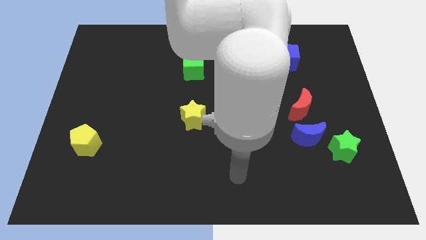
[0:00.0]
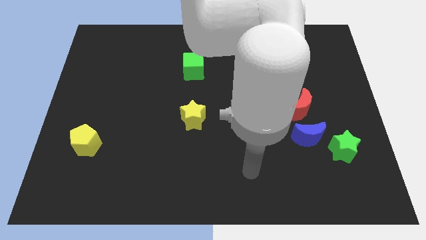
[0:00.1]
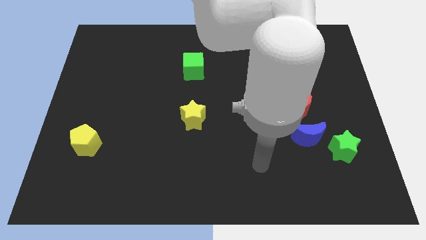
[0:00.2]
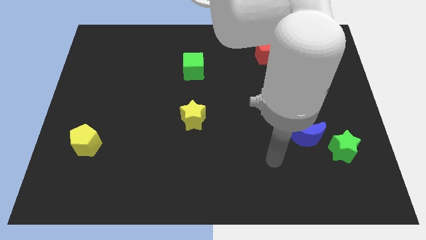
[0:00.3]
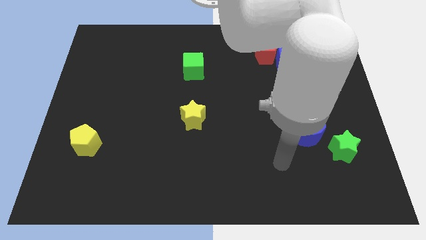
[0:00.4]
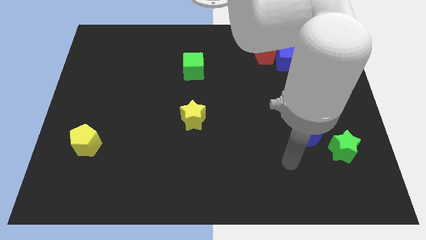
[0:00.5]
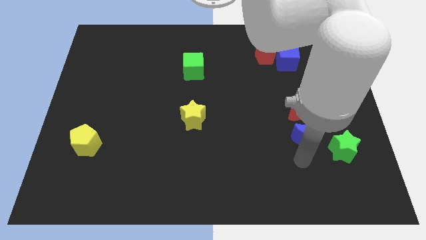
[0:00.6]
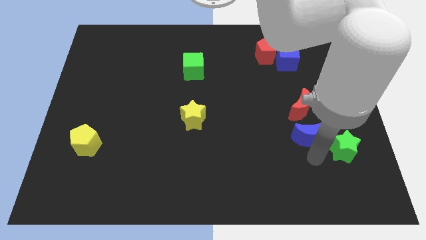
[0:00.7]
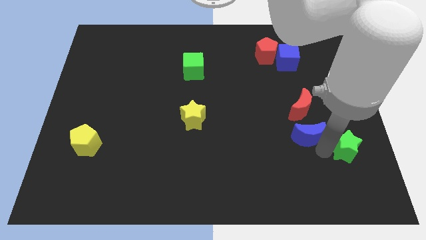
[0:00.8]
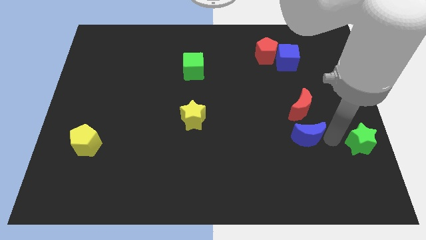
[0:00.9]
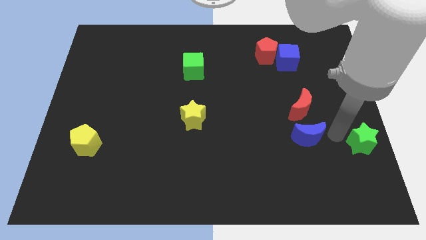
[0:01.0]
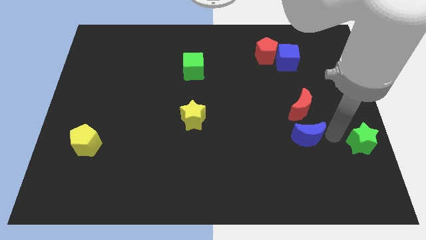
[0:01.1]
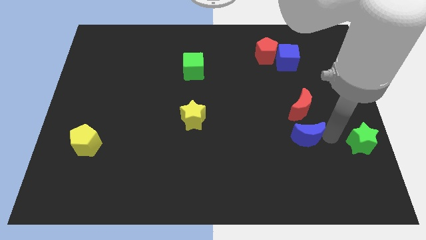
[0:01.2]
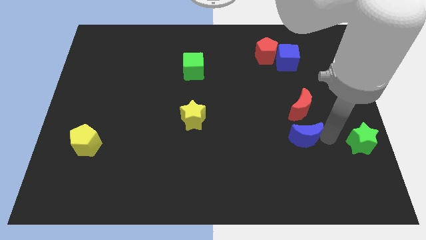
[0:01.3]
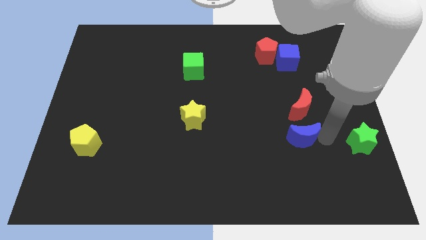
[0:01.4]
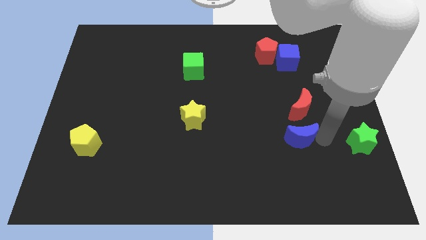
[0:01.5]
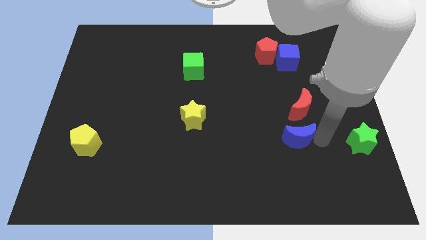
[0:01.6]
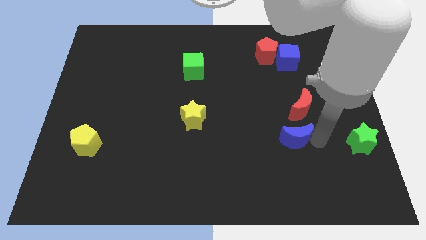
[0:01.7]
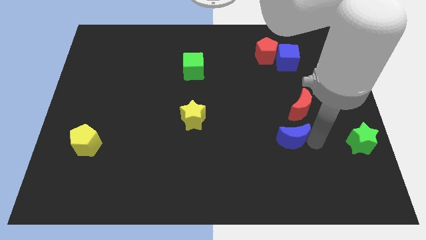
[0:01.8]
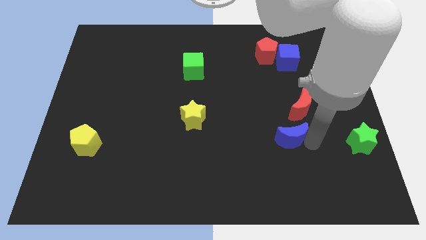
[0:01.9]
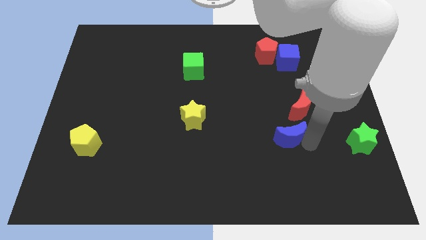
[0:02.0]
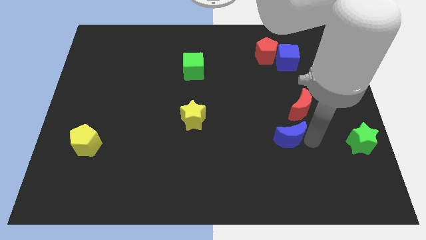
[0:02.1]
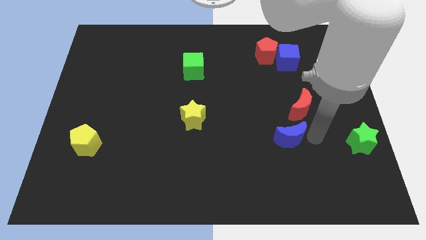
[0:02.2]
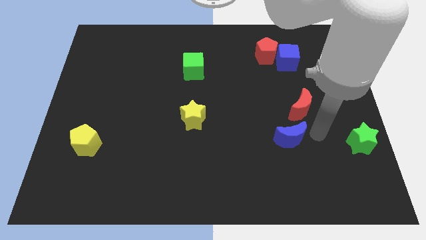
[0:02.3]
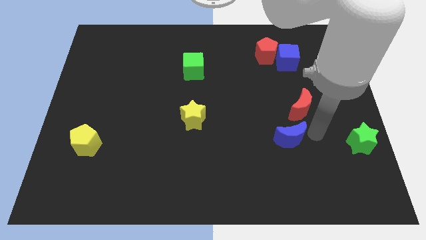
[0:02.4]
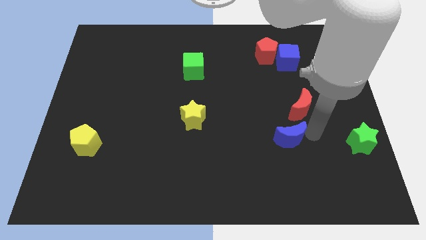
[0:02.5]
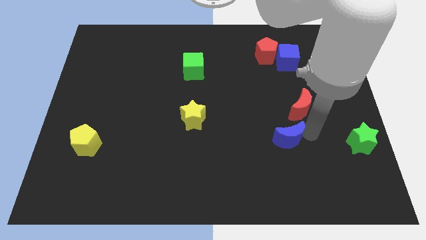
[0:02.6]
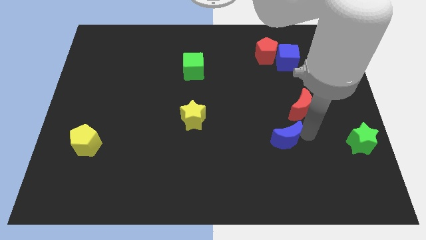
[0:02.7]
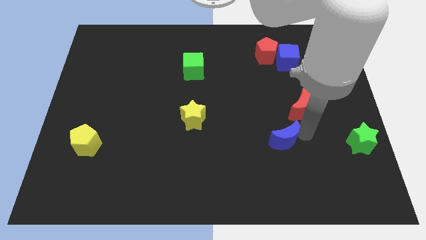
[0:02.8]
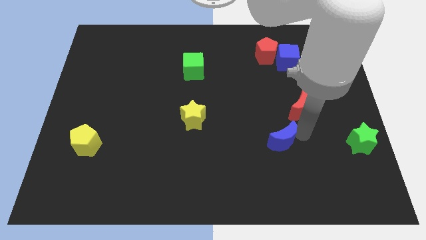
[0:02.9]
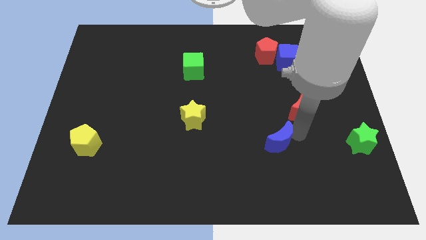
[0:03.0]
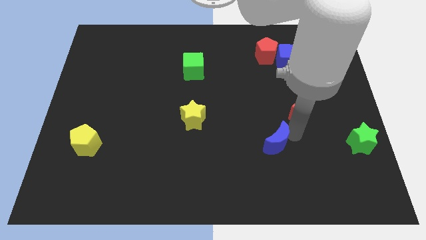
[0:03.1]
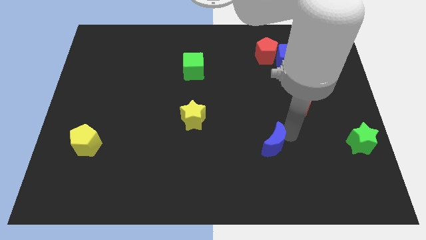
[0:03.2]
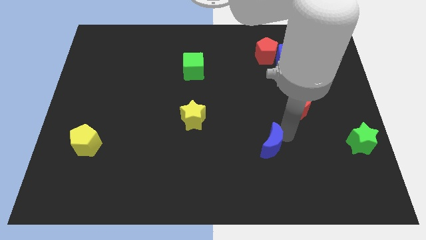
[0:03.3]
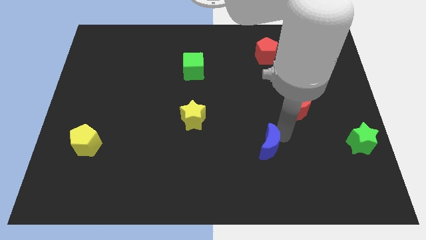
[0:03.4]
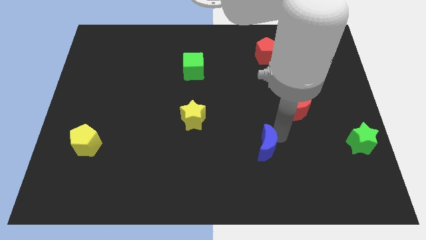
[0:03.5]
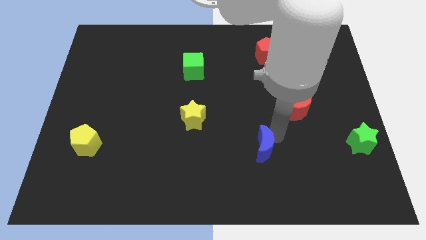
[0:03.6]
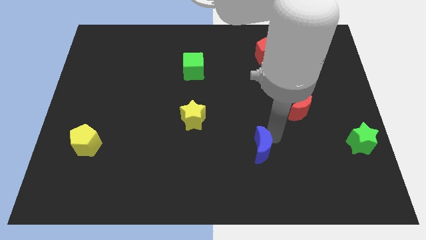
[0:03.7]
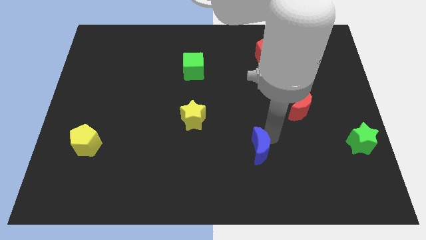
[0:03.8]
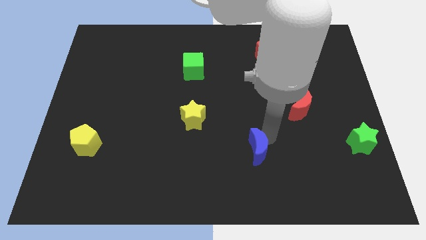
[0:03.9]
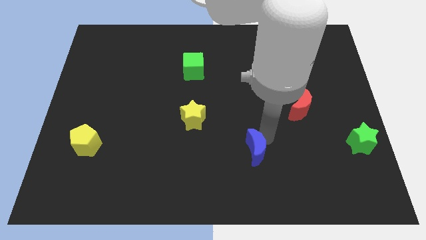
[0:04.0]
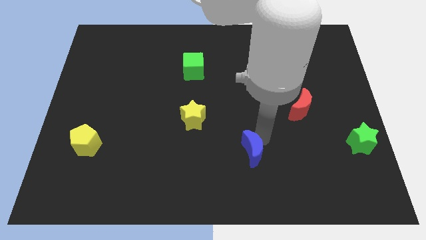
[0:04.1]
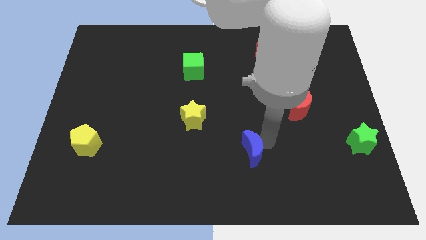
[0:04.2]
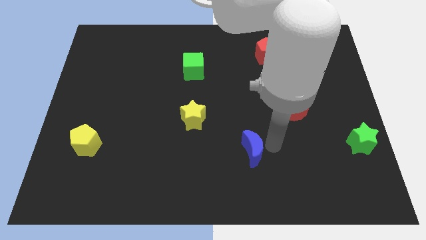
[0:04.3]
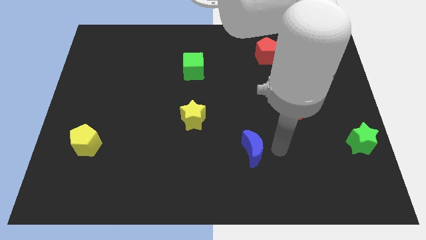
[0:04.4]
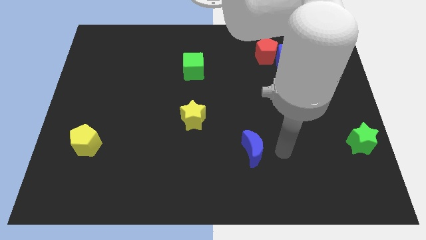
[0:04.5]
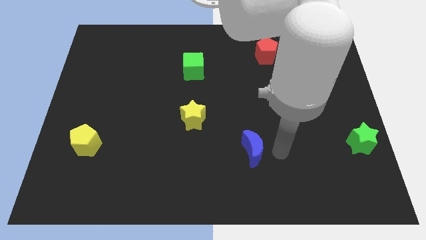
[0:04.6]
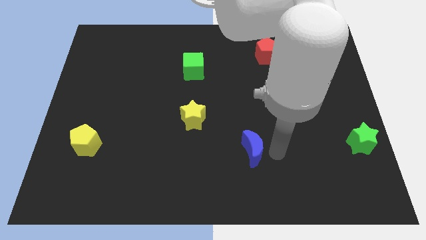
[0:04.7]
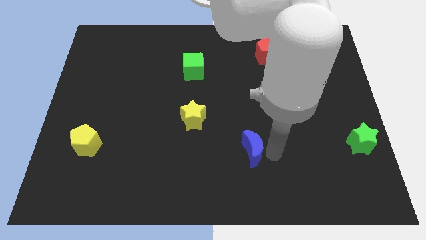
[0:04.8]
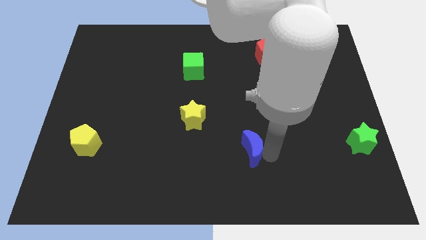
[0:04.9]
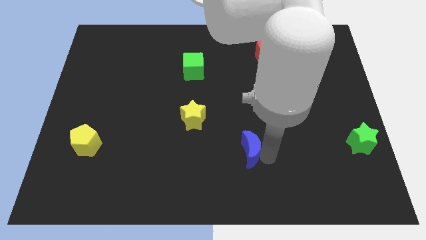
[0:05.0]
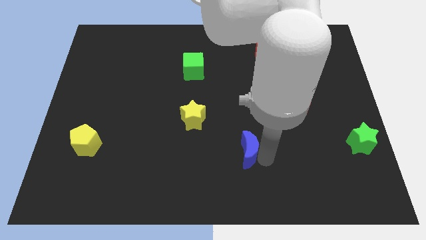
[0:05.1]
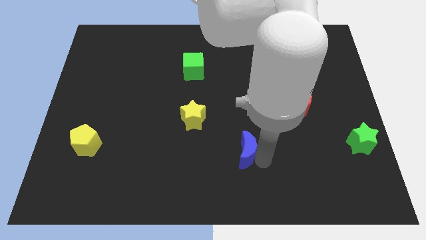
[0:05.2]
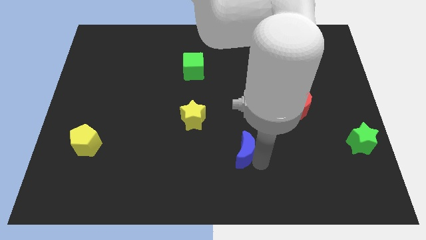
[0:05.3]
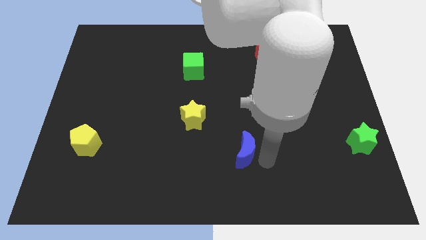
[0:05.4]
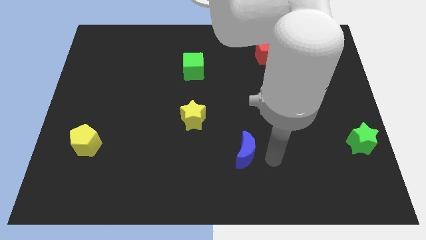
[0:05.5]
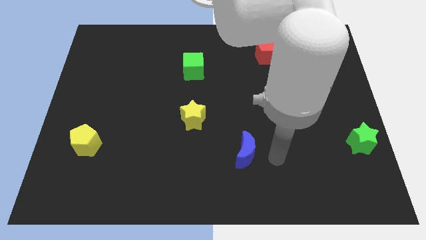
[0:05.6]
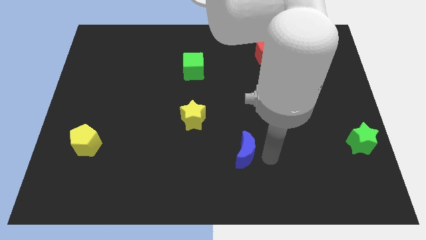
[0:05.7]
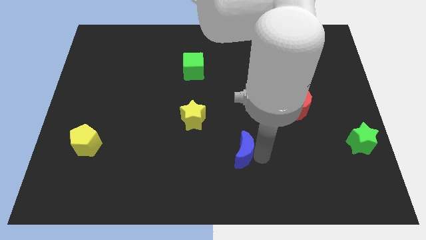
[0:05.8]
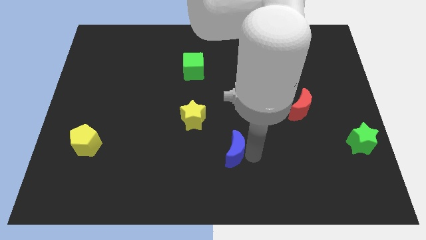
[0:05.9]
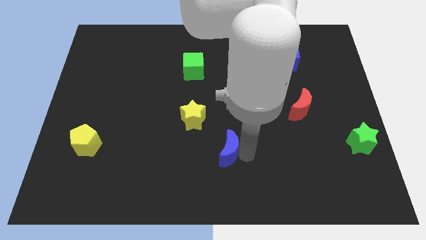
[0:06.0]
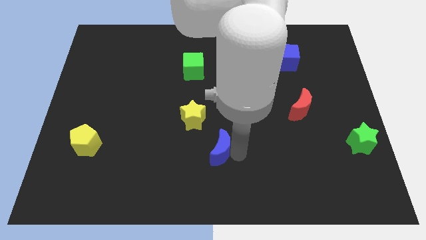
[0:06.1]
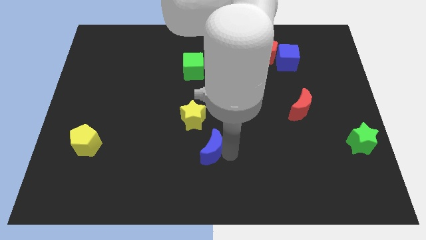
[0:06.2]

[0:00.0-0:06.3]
slide the blue moon to the left

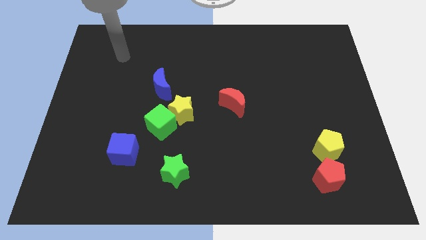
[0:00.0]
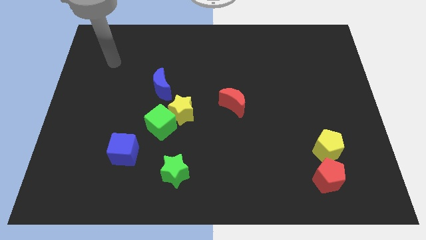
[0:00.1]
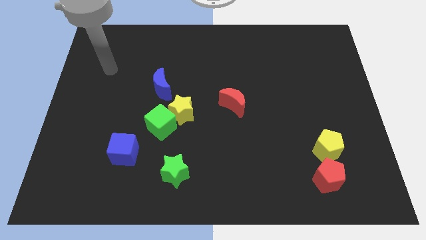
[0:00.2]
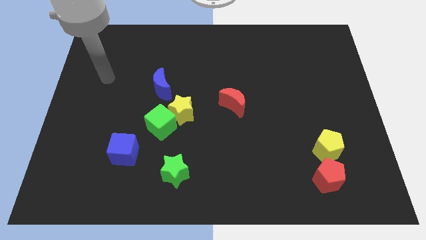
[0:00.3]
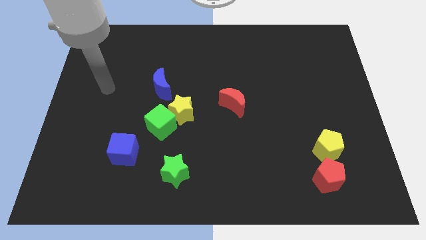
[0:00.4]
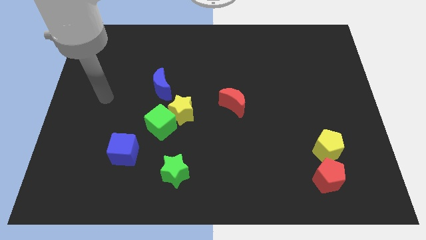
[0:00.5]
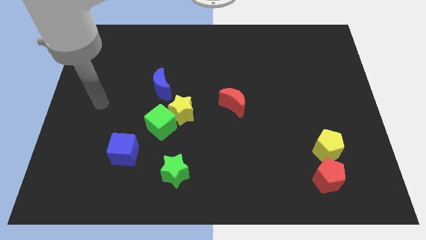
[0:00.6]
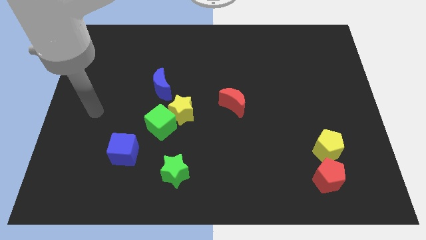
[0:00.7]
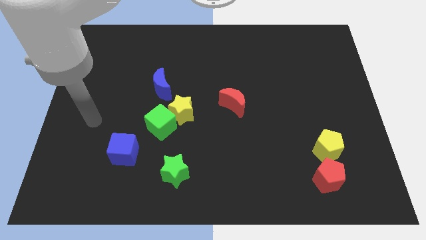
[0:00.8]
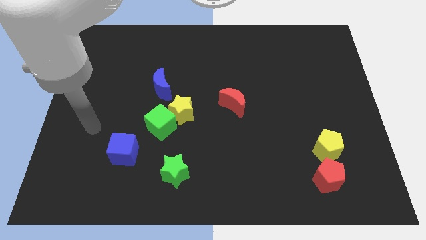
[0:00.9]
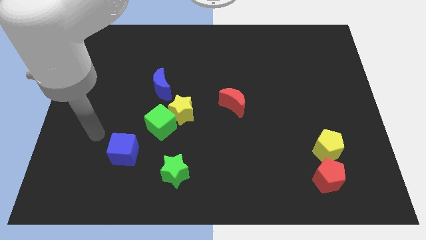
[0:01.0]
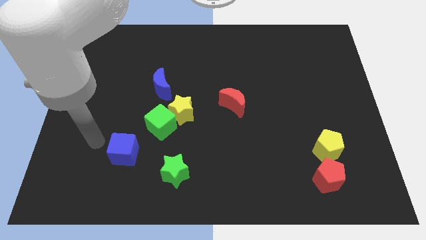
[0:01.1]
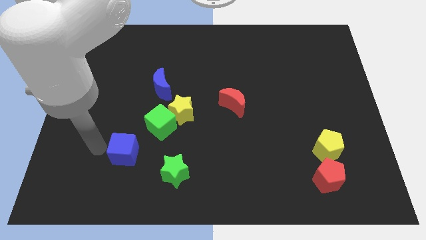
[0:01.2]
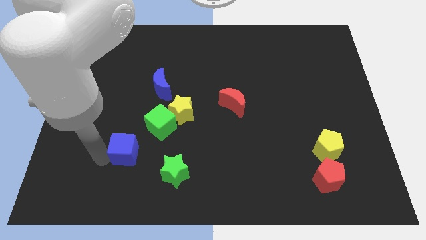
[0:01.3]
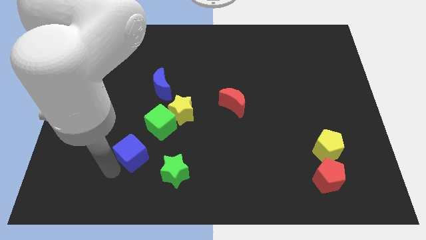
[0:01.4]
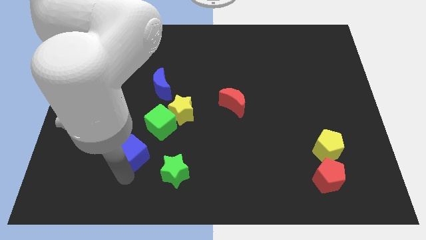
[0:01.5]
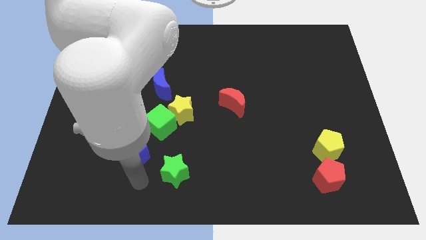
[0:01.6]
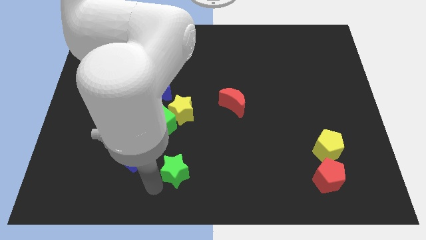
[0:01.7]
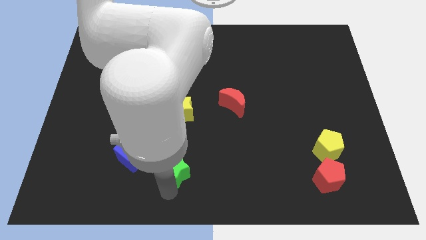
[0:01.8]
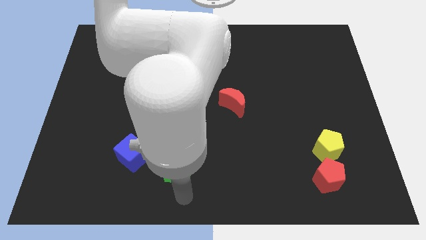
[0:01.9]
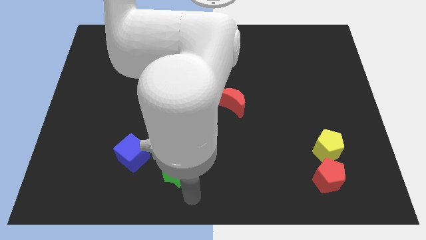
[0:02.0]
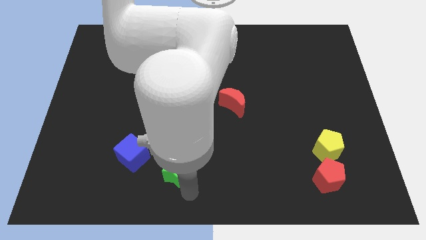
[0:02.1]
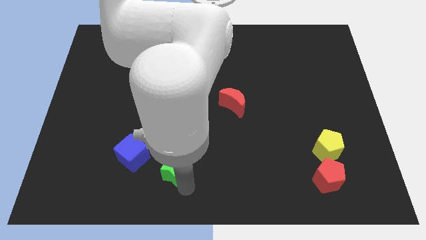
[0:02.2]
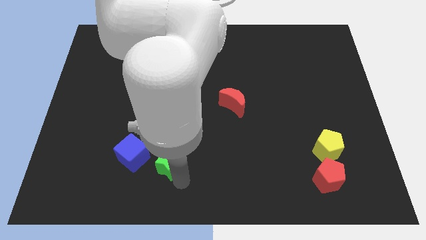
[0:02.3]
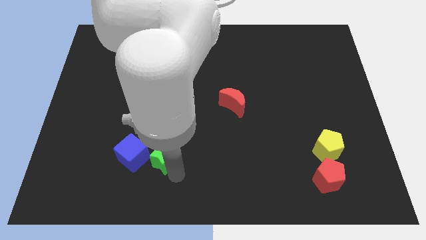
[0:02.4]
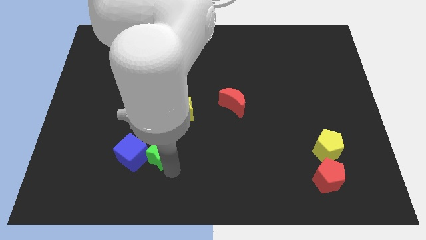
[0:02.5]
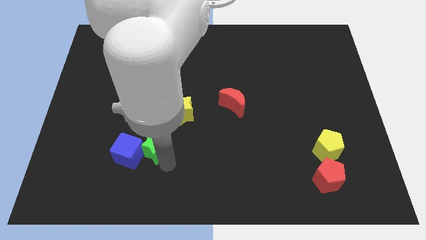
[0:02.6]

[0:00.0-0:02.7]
slightly slide the green star up and left
